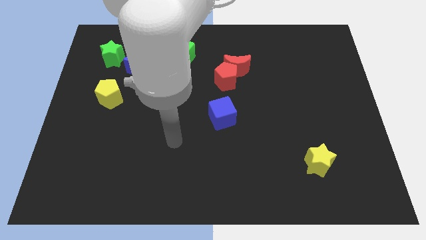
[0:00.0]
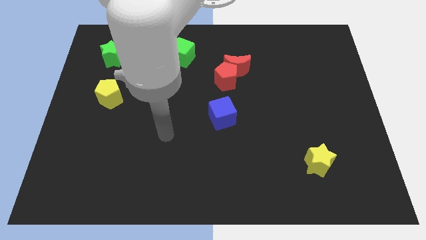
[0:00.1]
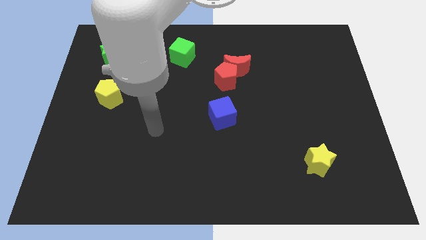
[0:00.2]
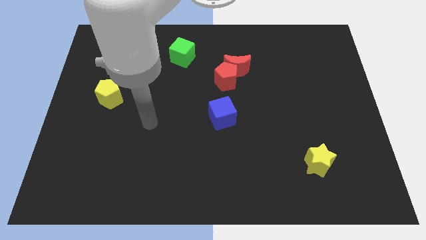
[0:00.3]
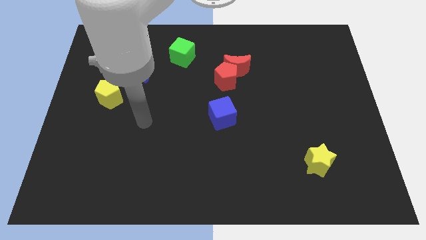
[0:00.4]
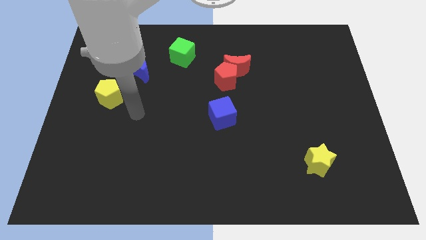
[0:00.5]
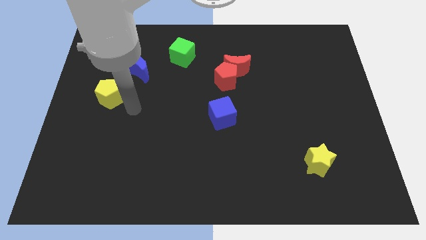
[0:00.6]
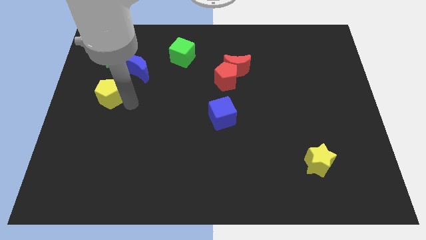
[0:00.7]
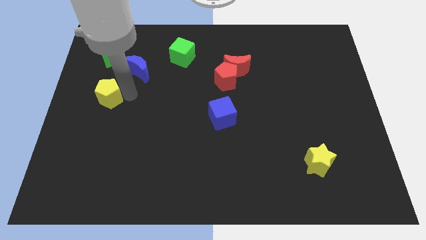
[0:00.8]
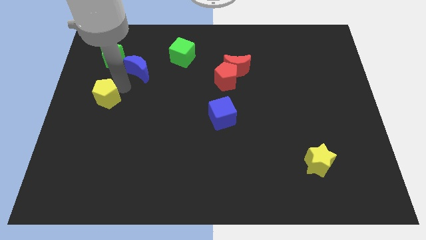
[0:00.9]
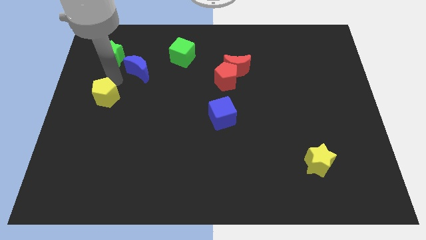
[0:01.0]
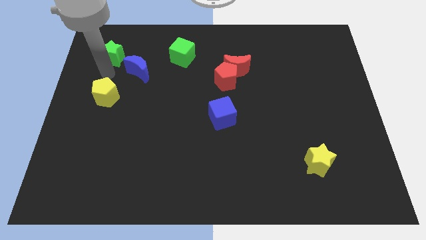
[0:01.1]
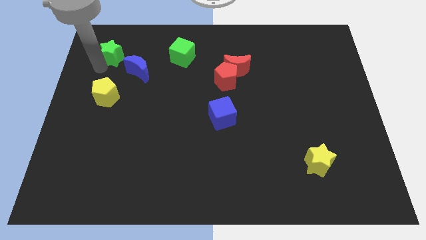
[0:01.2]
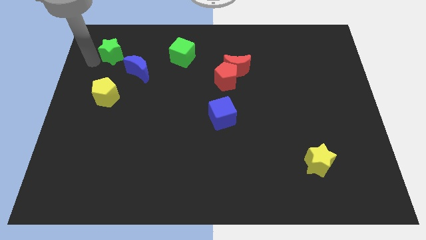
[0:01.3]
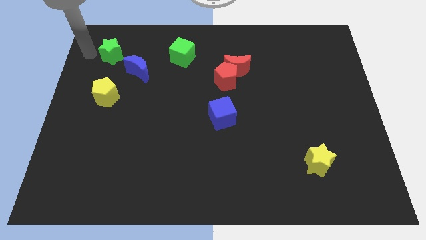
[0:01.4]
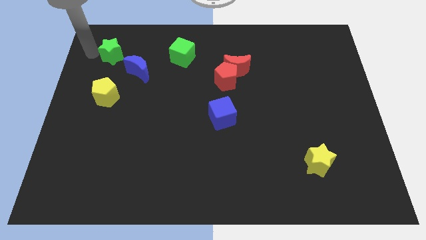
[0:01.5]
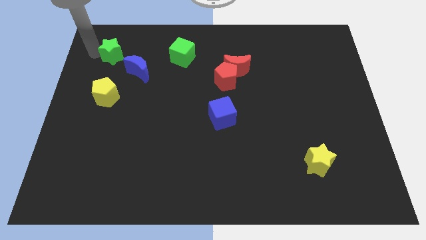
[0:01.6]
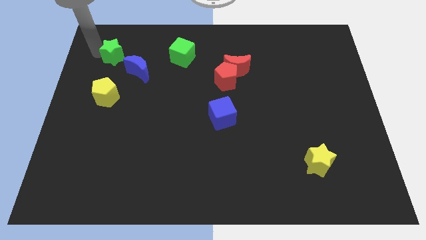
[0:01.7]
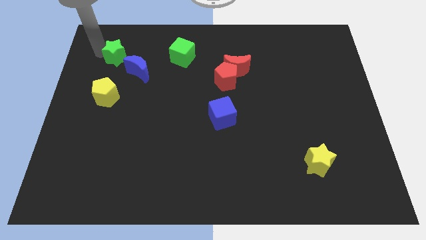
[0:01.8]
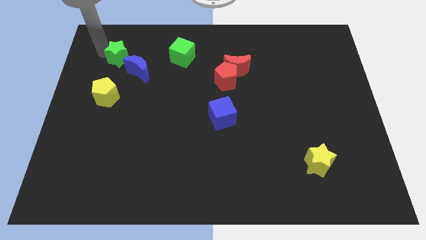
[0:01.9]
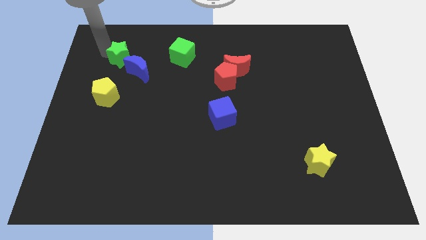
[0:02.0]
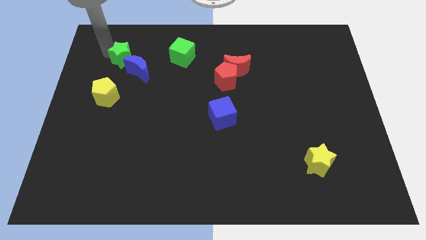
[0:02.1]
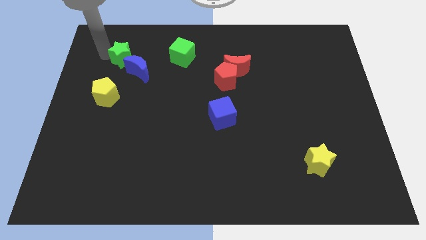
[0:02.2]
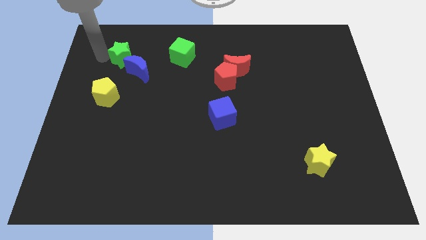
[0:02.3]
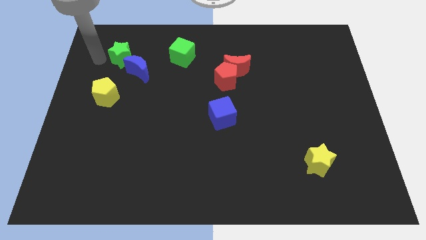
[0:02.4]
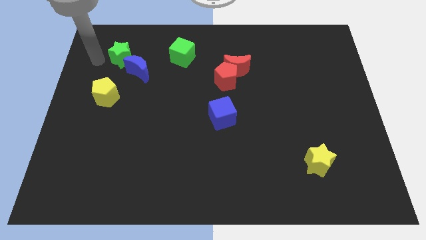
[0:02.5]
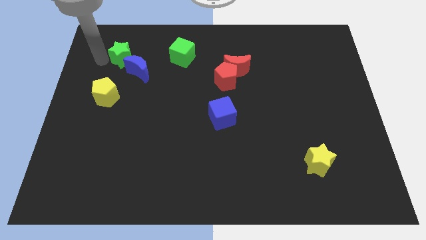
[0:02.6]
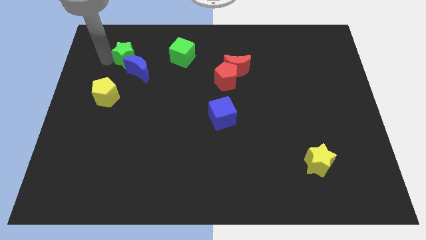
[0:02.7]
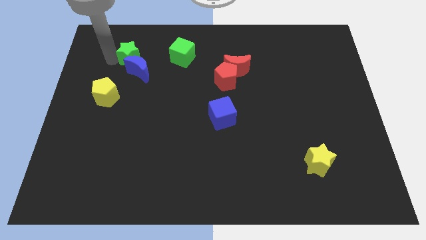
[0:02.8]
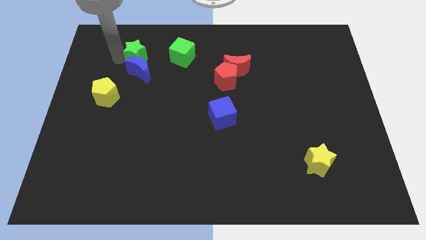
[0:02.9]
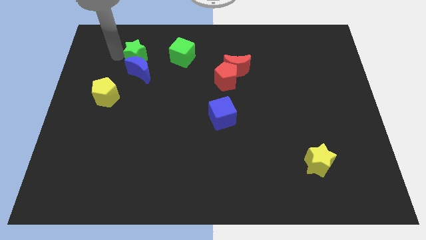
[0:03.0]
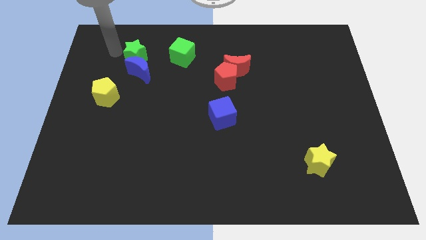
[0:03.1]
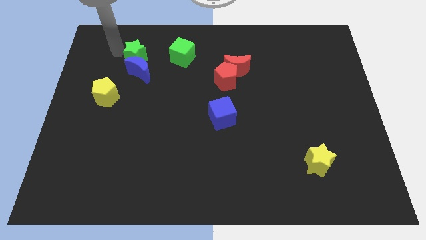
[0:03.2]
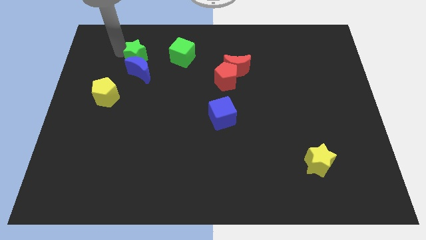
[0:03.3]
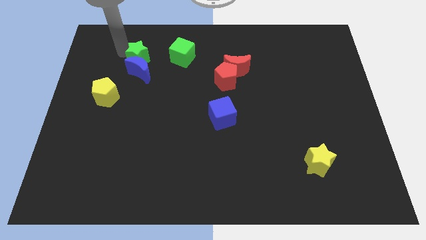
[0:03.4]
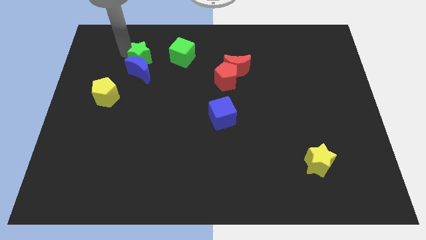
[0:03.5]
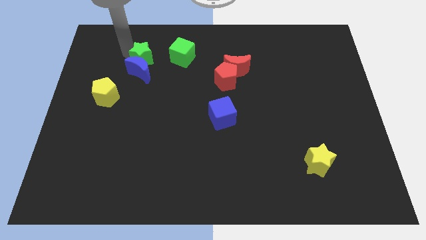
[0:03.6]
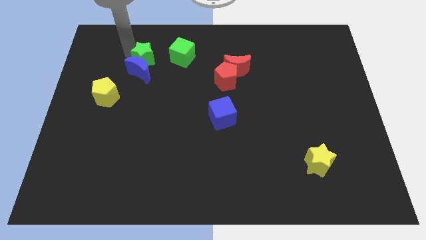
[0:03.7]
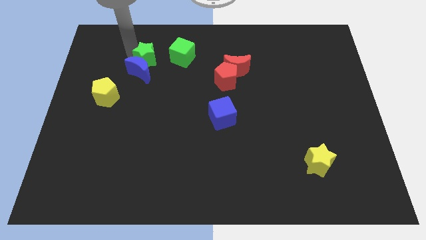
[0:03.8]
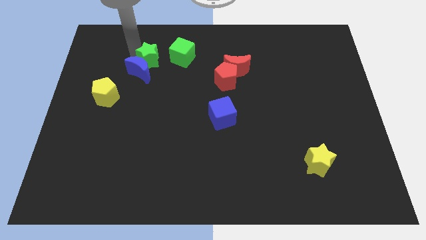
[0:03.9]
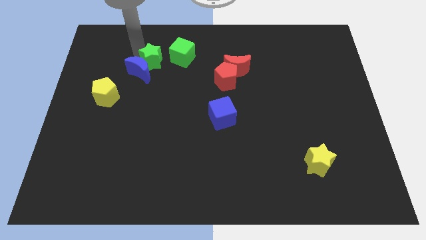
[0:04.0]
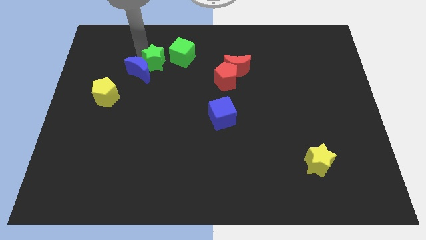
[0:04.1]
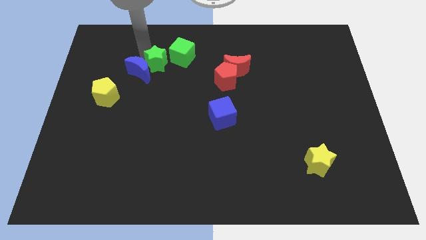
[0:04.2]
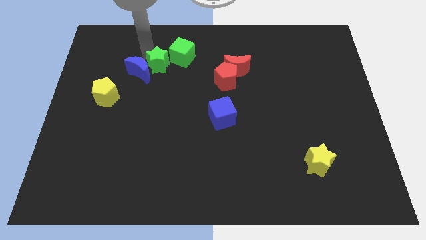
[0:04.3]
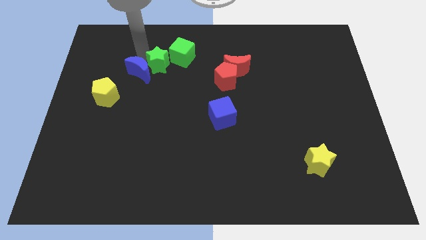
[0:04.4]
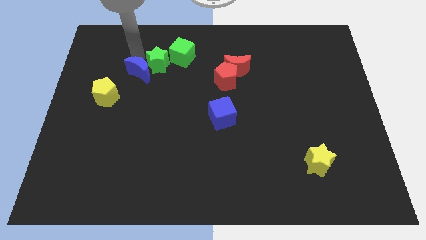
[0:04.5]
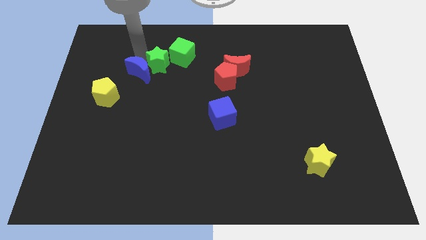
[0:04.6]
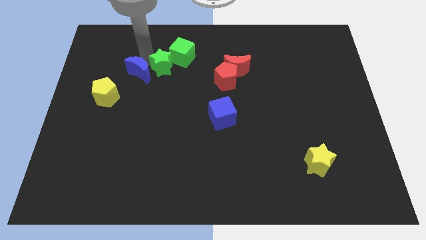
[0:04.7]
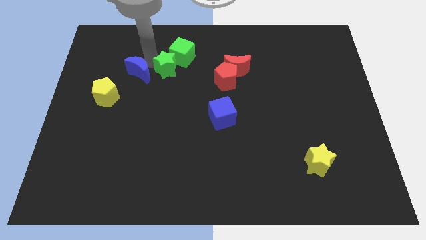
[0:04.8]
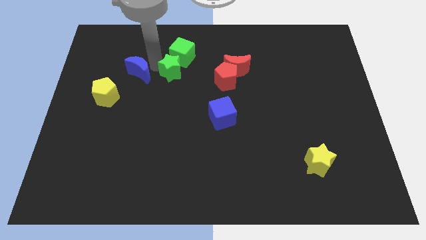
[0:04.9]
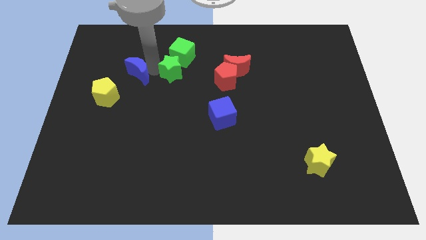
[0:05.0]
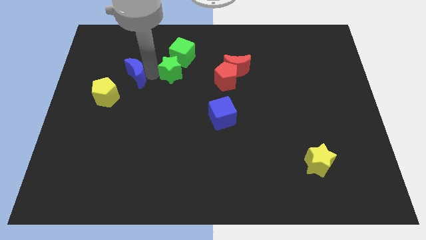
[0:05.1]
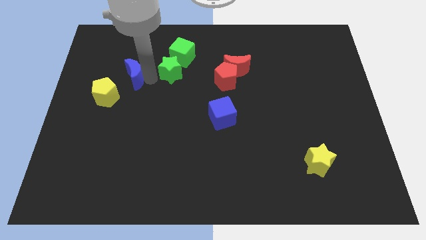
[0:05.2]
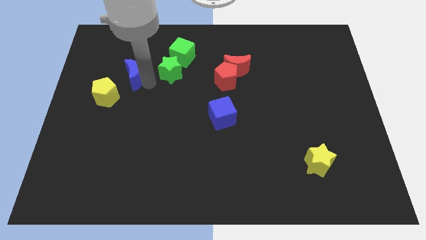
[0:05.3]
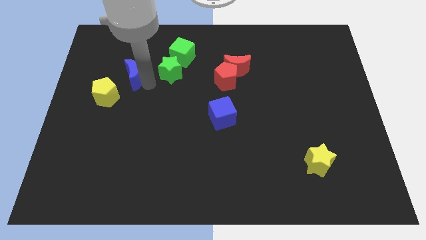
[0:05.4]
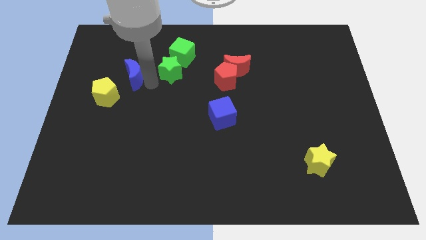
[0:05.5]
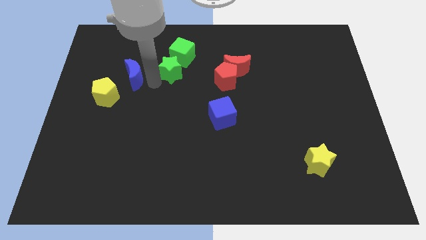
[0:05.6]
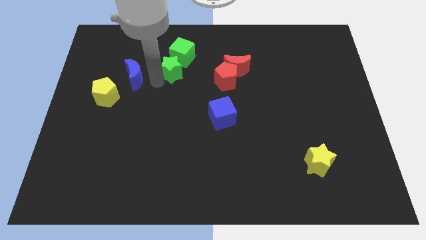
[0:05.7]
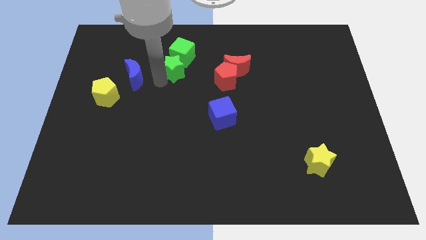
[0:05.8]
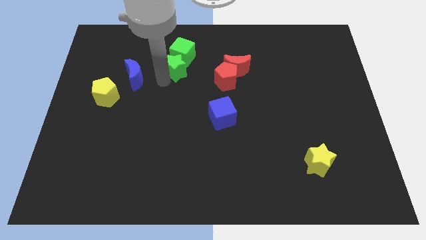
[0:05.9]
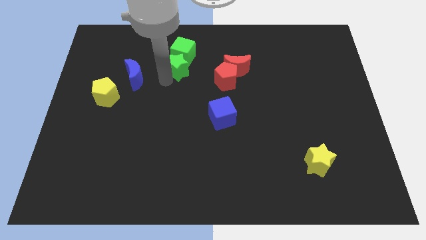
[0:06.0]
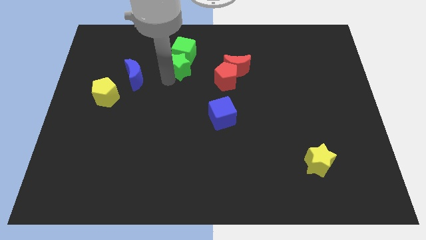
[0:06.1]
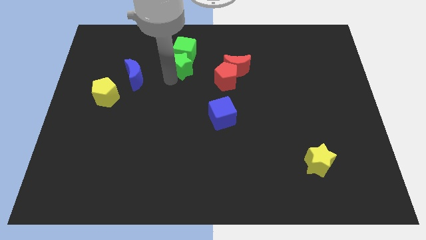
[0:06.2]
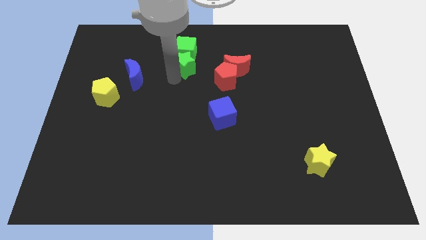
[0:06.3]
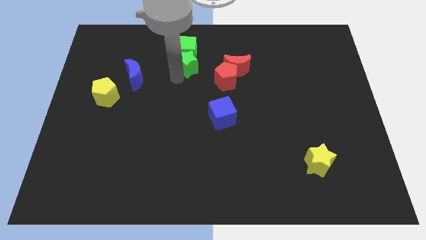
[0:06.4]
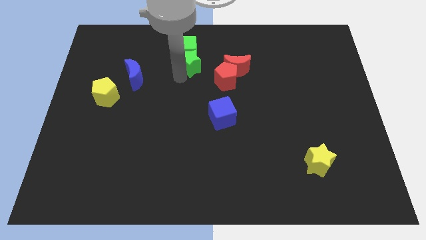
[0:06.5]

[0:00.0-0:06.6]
push the green star to the right

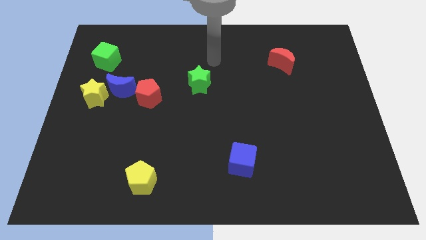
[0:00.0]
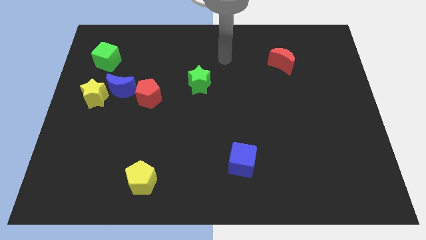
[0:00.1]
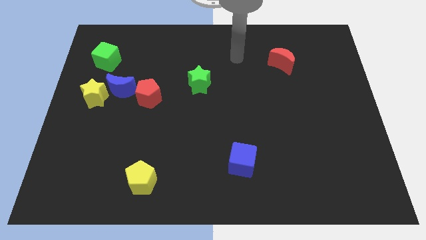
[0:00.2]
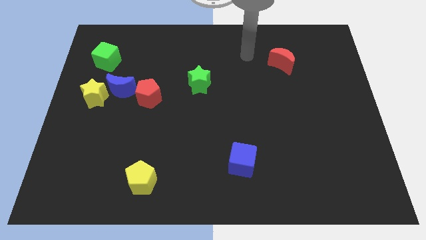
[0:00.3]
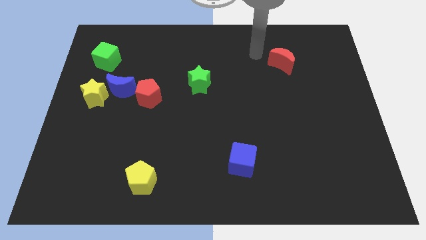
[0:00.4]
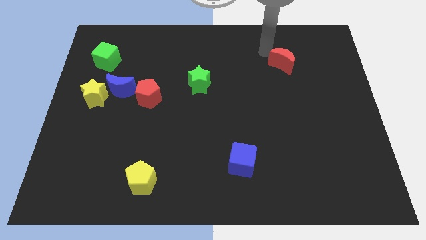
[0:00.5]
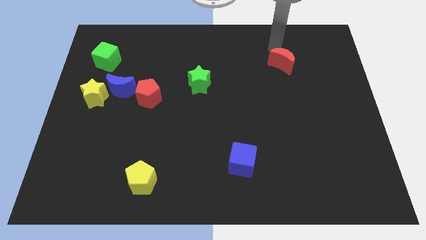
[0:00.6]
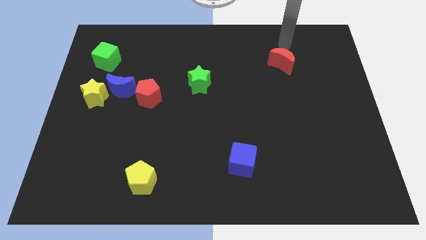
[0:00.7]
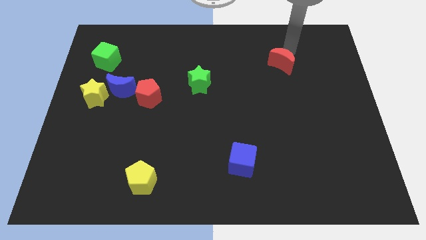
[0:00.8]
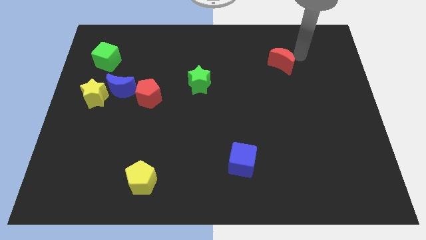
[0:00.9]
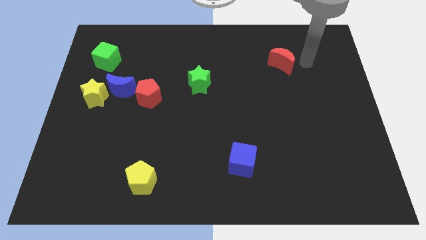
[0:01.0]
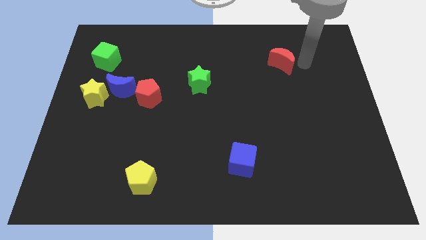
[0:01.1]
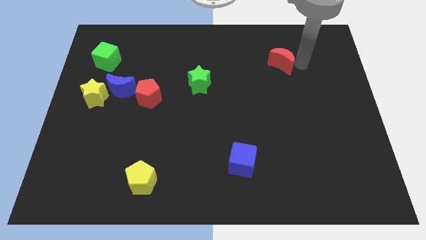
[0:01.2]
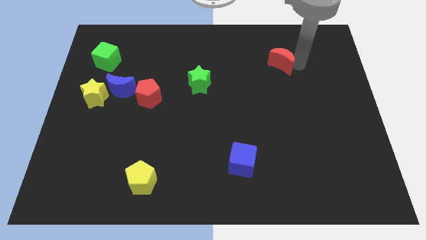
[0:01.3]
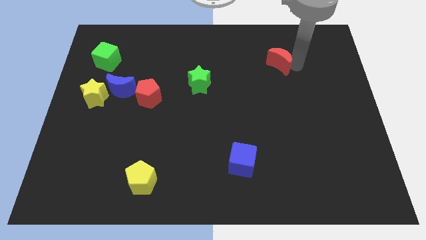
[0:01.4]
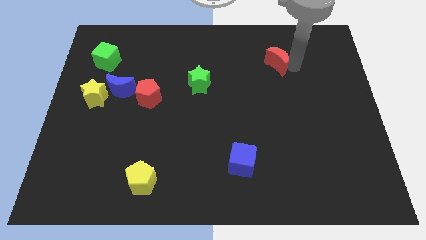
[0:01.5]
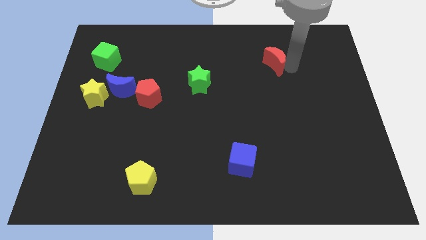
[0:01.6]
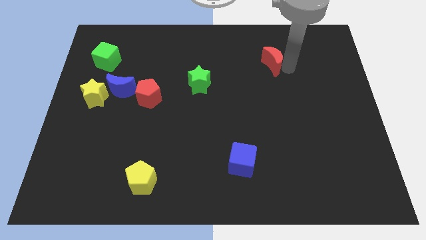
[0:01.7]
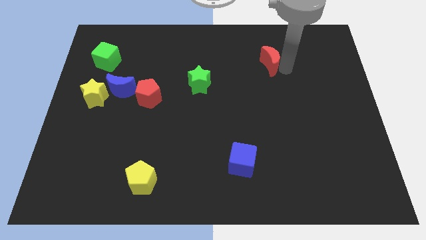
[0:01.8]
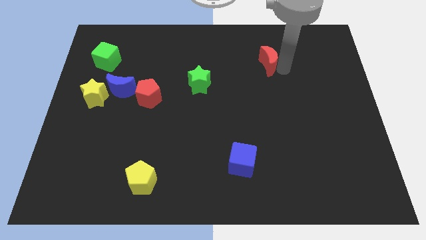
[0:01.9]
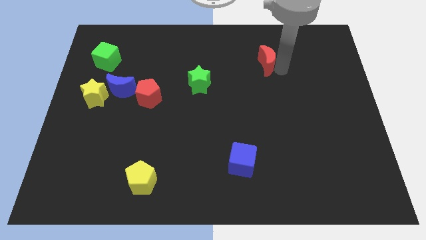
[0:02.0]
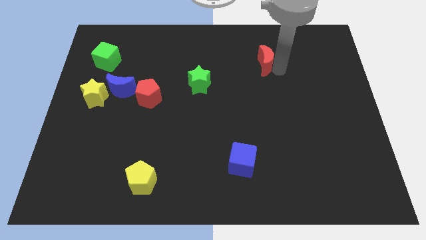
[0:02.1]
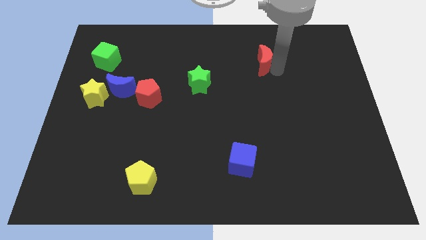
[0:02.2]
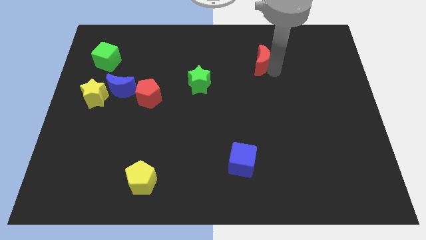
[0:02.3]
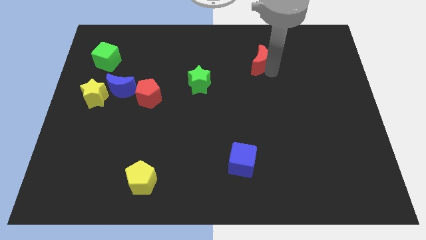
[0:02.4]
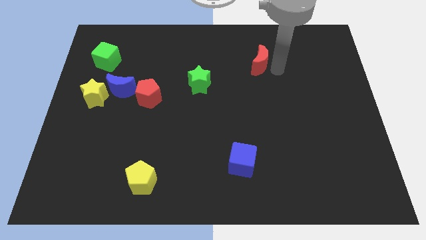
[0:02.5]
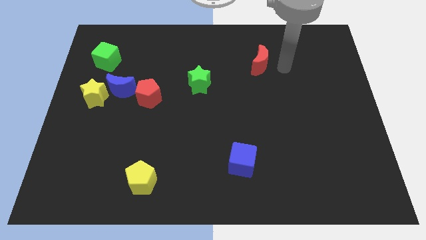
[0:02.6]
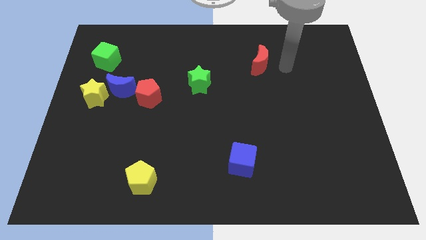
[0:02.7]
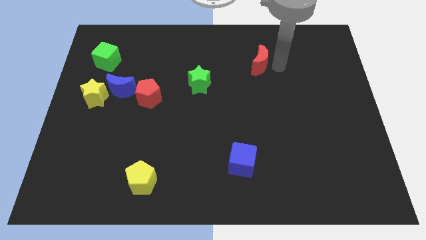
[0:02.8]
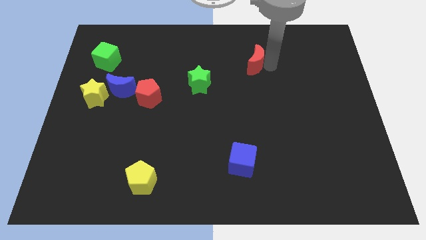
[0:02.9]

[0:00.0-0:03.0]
push the red moon a little left
